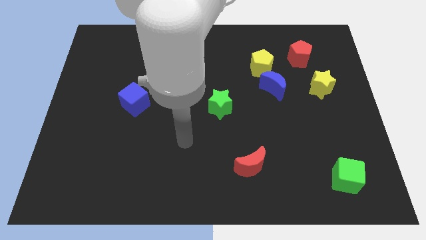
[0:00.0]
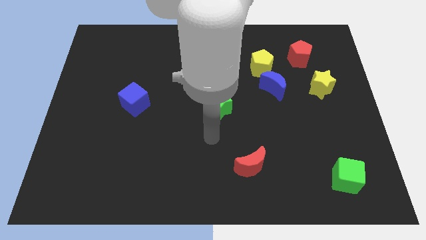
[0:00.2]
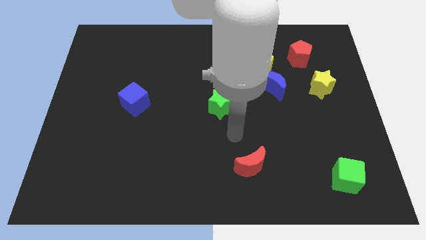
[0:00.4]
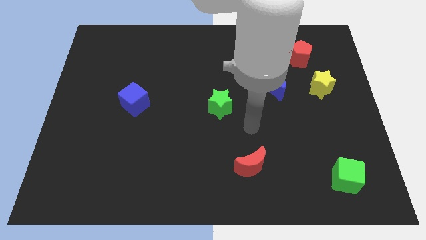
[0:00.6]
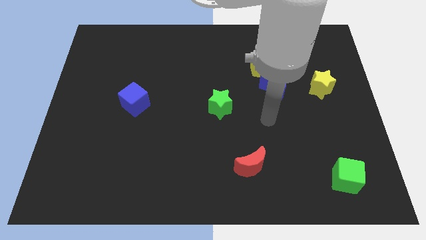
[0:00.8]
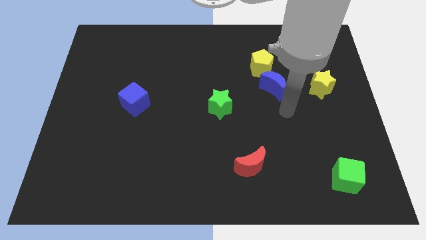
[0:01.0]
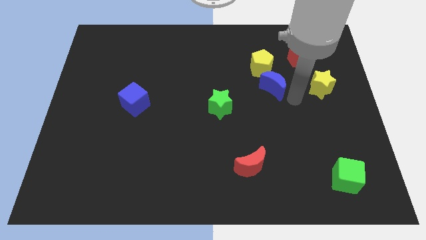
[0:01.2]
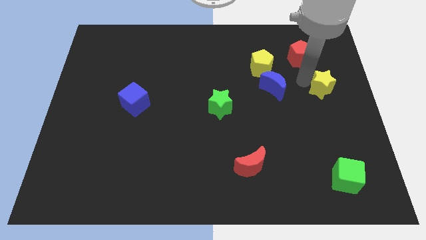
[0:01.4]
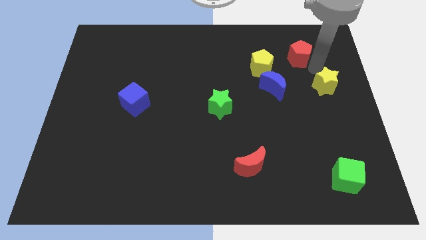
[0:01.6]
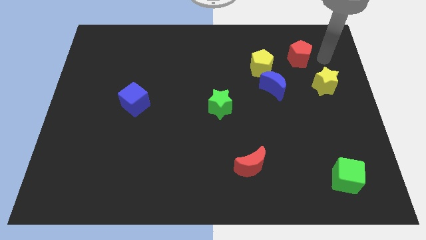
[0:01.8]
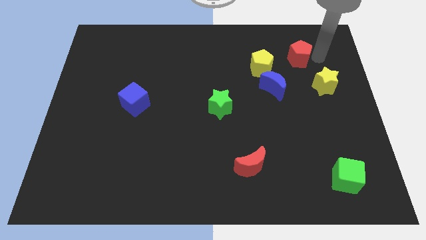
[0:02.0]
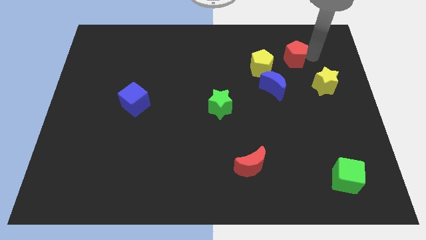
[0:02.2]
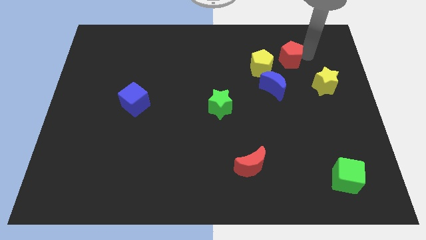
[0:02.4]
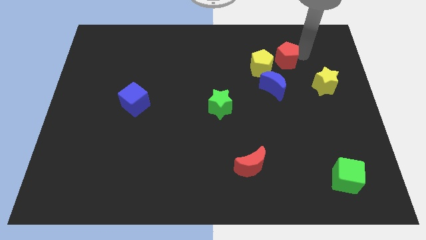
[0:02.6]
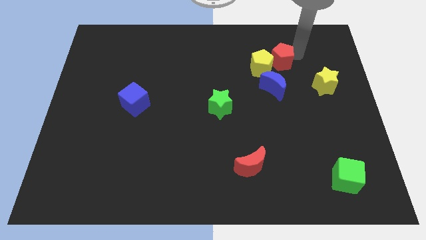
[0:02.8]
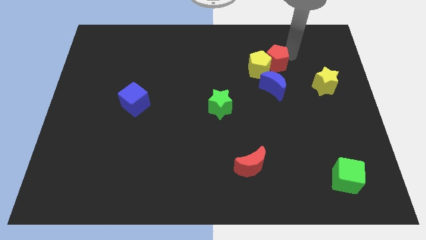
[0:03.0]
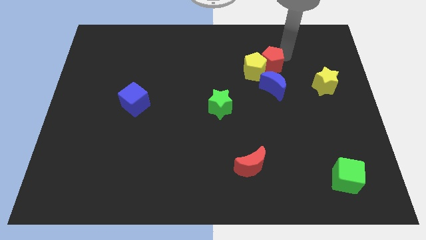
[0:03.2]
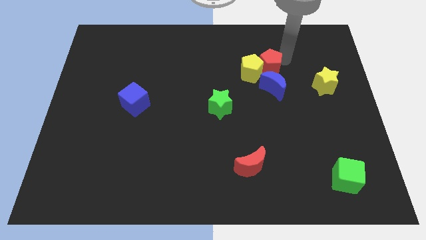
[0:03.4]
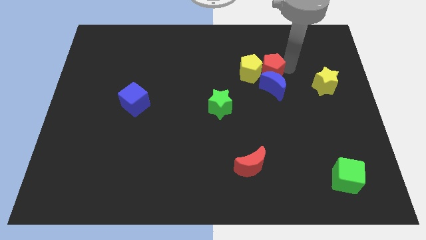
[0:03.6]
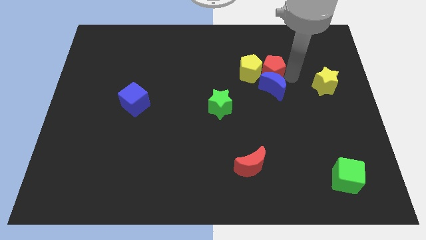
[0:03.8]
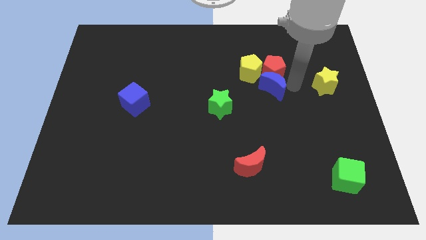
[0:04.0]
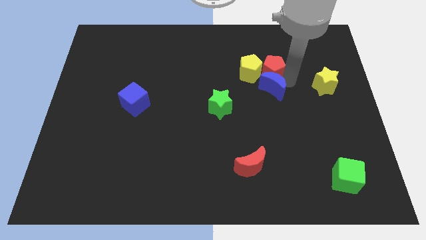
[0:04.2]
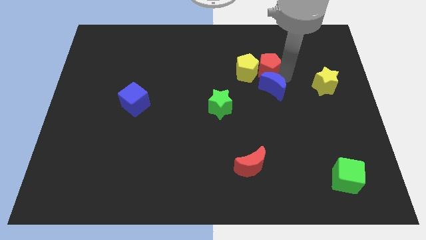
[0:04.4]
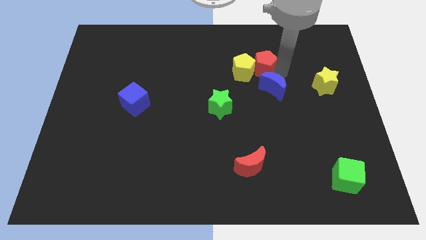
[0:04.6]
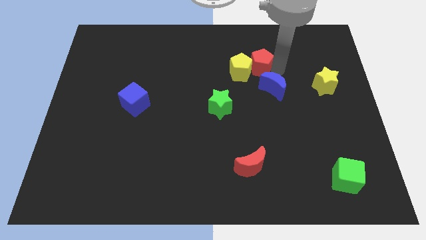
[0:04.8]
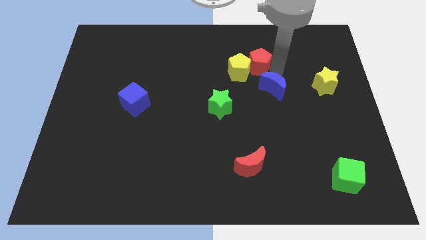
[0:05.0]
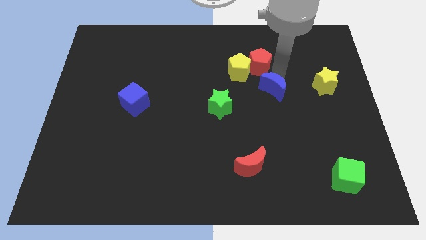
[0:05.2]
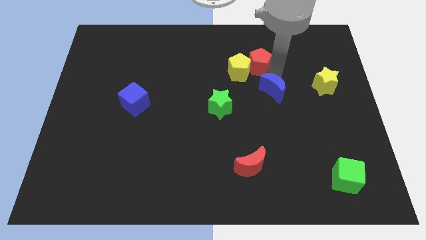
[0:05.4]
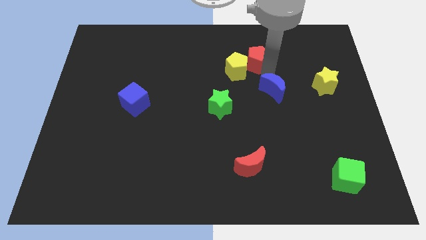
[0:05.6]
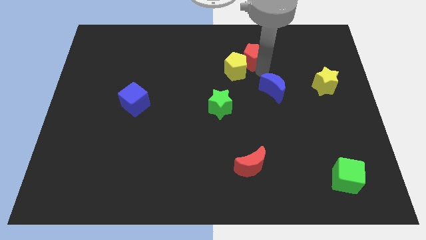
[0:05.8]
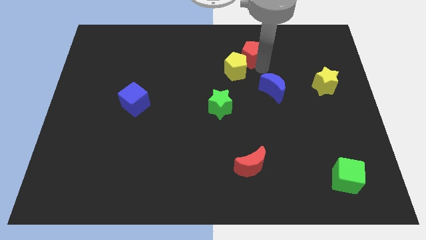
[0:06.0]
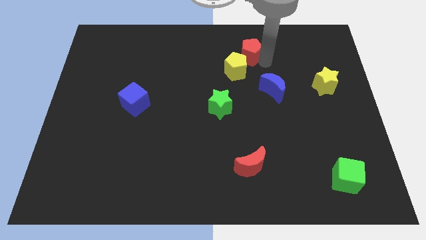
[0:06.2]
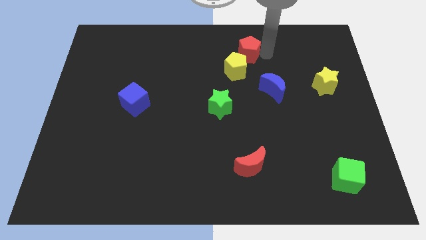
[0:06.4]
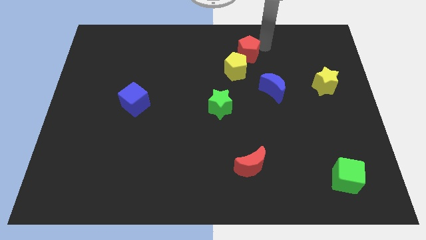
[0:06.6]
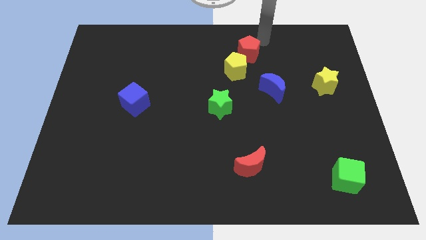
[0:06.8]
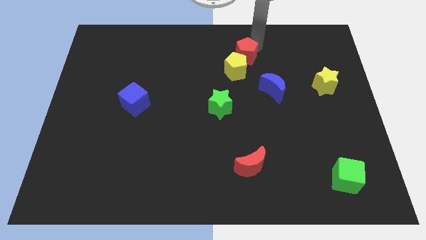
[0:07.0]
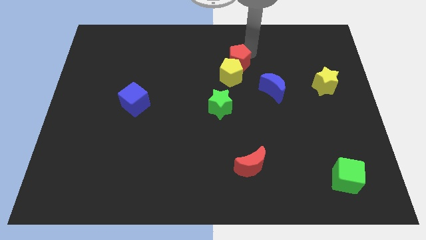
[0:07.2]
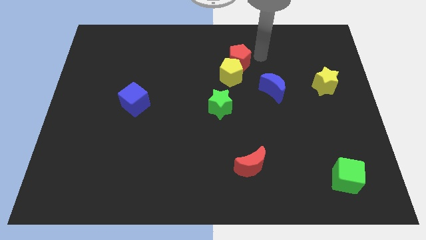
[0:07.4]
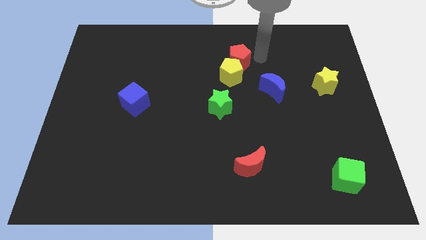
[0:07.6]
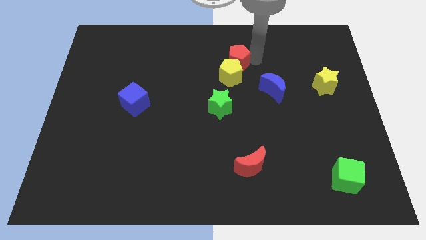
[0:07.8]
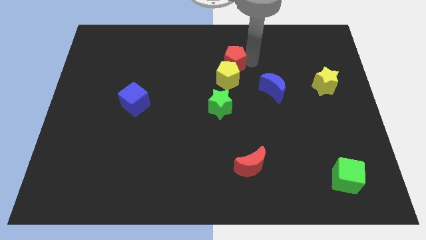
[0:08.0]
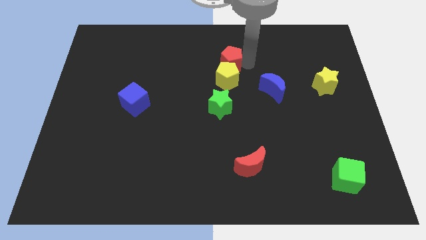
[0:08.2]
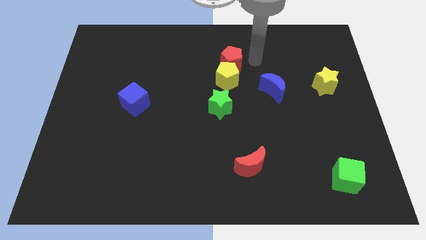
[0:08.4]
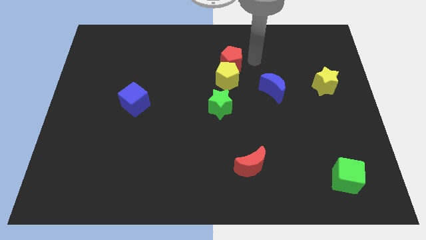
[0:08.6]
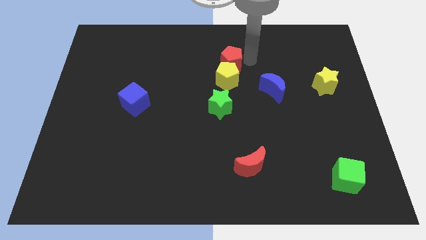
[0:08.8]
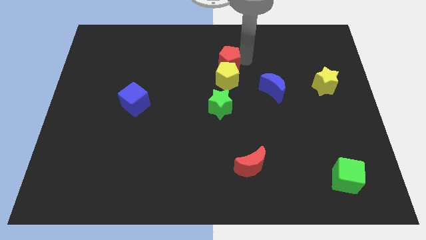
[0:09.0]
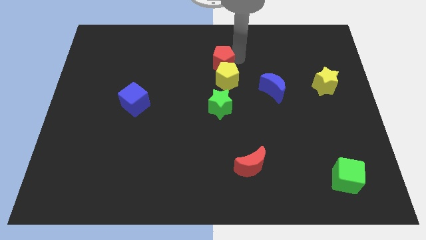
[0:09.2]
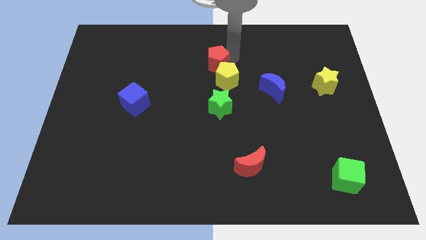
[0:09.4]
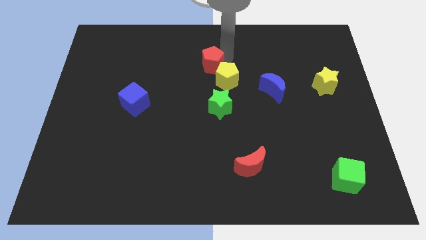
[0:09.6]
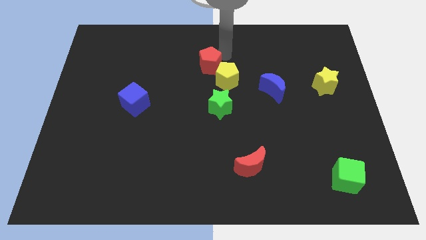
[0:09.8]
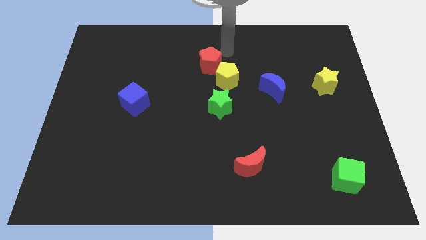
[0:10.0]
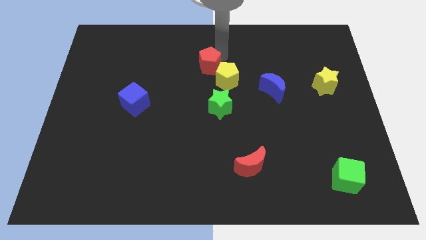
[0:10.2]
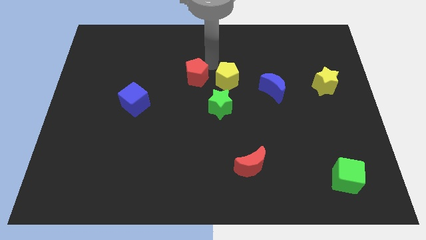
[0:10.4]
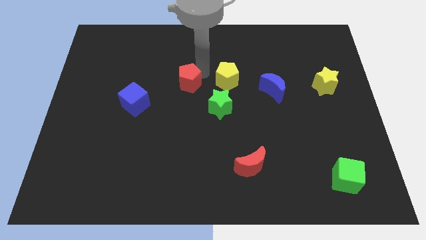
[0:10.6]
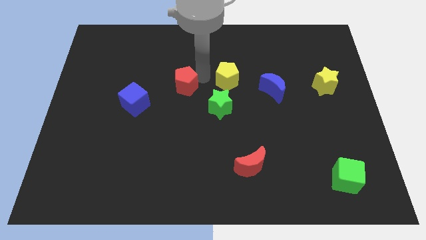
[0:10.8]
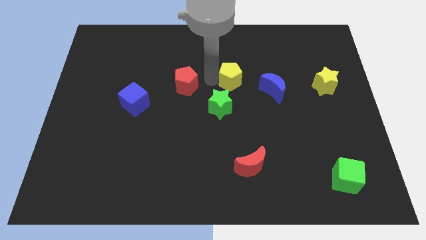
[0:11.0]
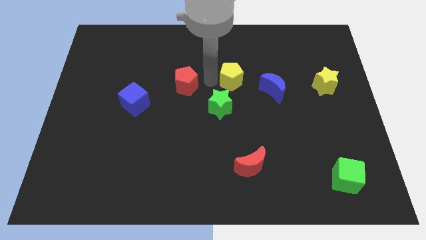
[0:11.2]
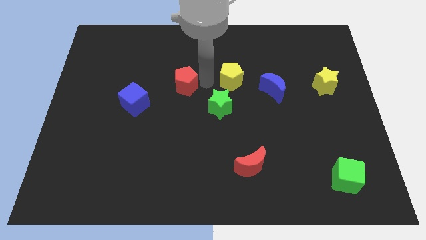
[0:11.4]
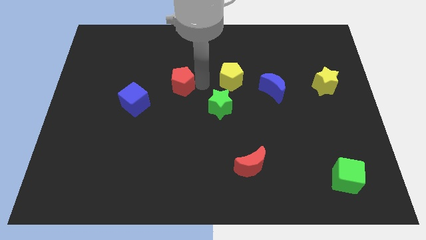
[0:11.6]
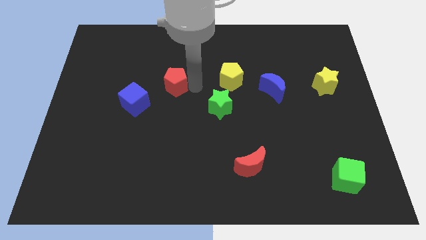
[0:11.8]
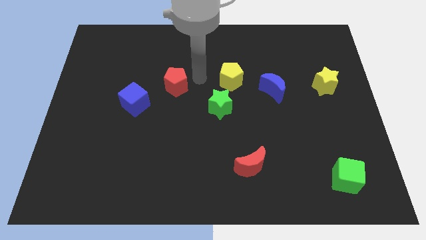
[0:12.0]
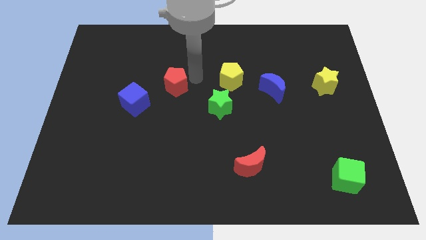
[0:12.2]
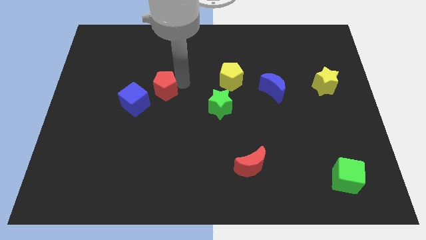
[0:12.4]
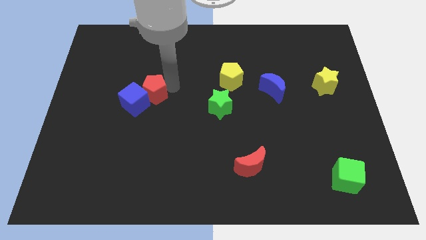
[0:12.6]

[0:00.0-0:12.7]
push the red pentagon towards the blue cube

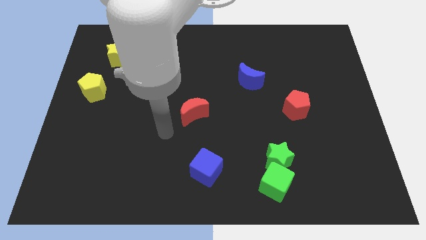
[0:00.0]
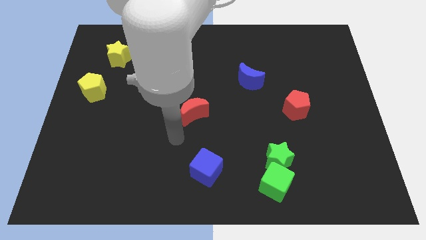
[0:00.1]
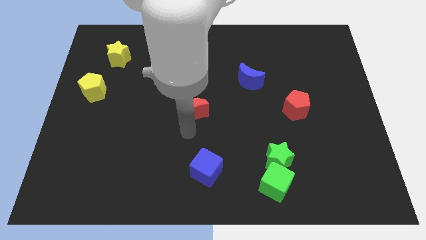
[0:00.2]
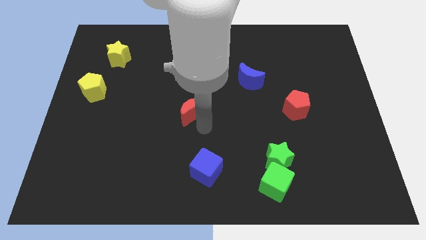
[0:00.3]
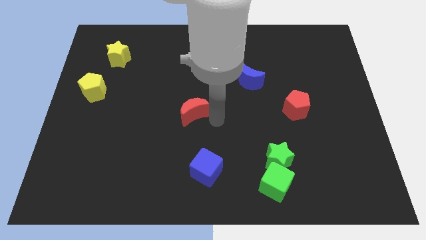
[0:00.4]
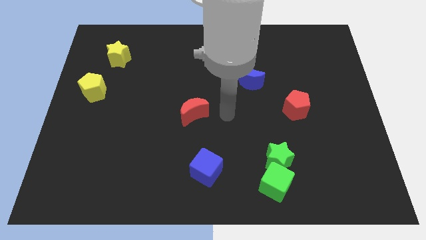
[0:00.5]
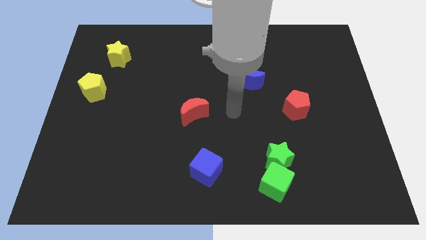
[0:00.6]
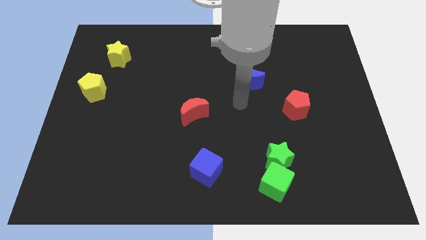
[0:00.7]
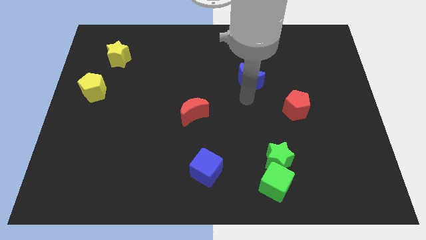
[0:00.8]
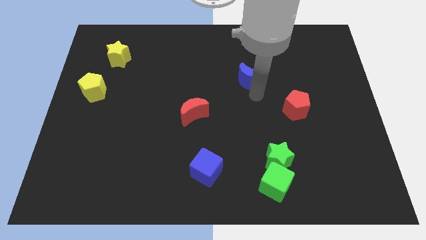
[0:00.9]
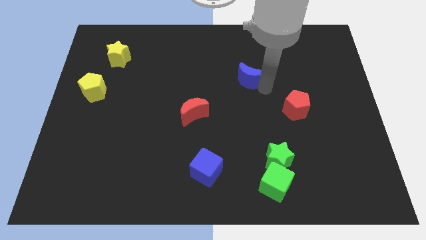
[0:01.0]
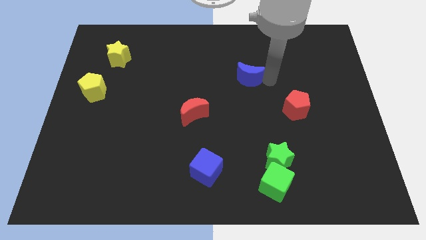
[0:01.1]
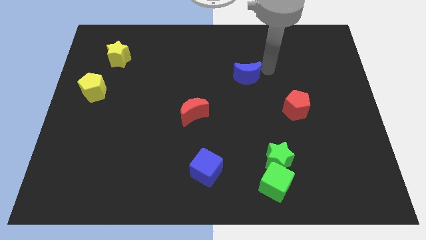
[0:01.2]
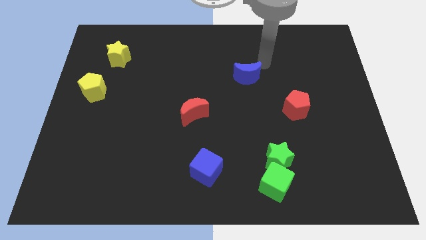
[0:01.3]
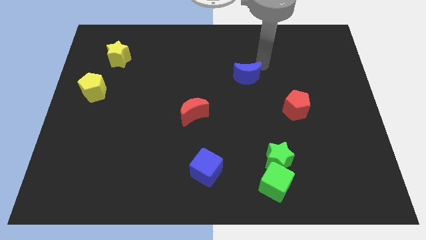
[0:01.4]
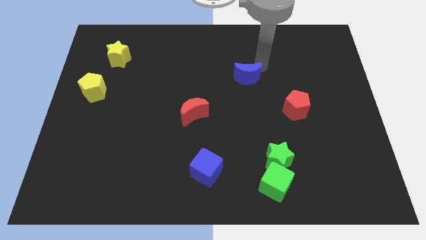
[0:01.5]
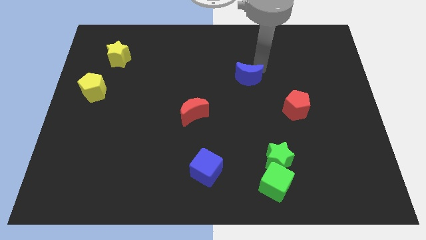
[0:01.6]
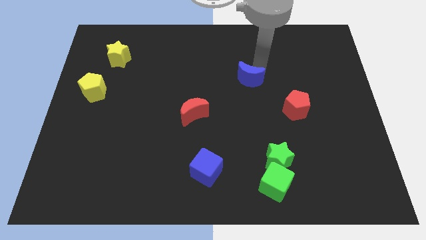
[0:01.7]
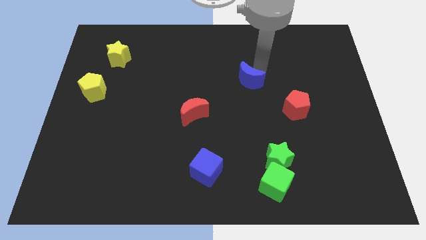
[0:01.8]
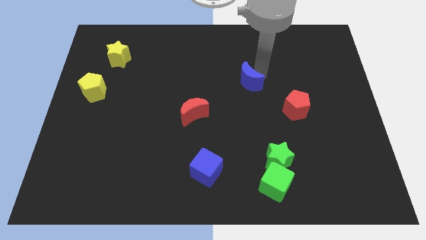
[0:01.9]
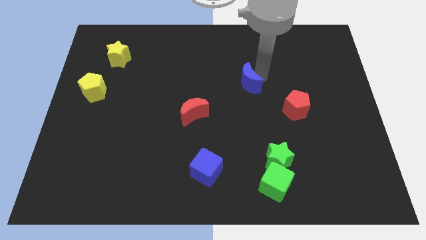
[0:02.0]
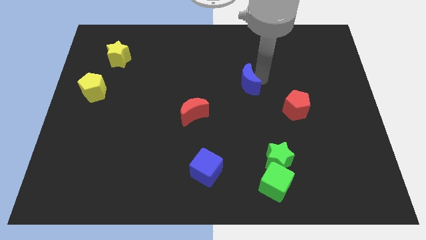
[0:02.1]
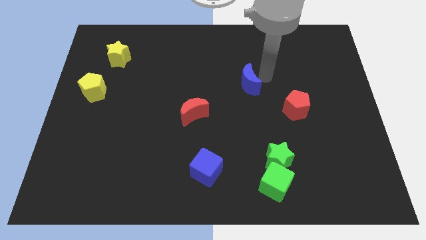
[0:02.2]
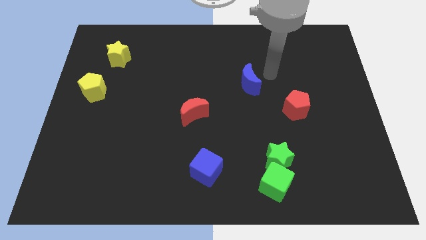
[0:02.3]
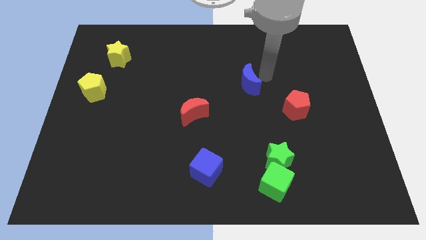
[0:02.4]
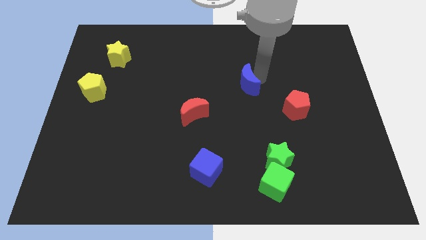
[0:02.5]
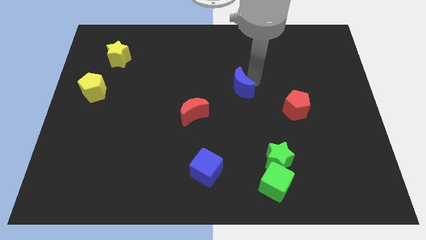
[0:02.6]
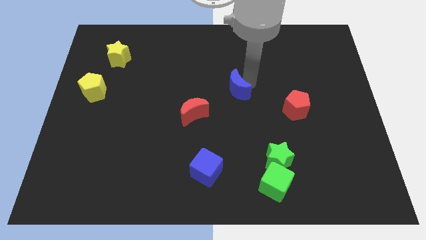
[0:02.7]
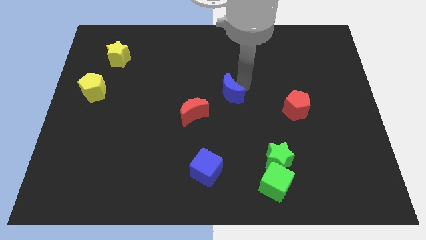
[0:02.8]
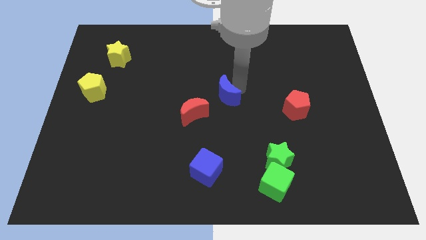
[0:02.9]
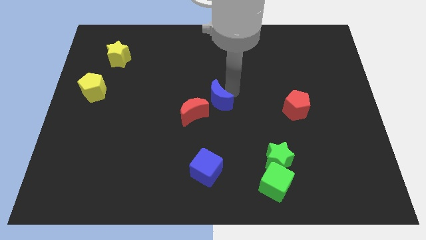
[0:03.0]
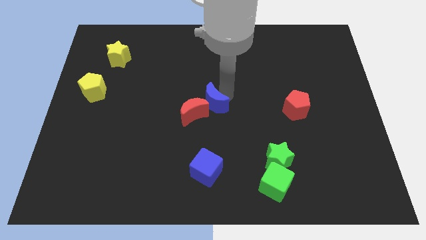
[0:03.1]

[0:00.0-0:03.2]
put the blue moon next to the red moon
